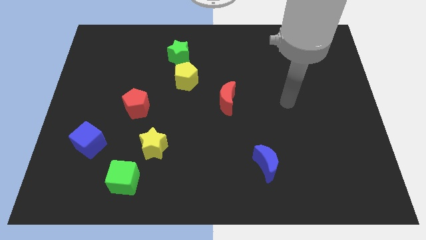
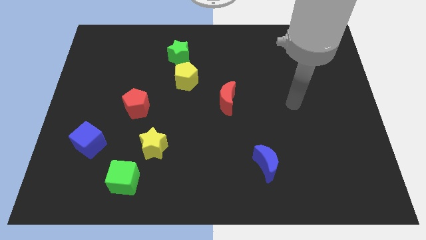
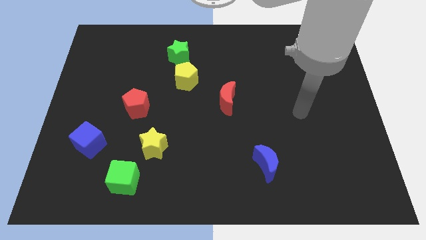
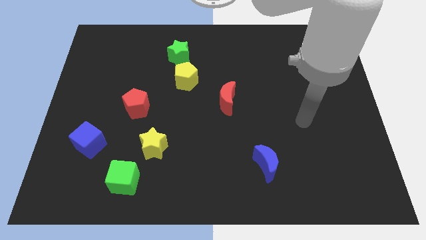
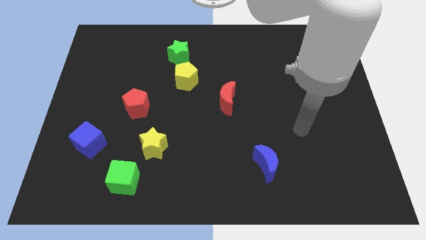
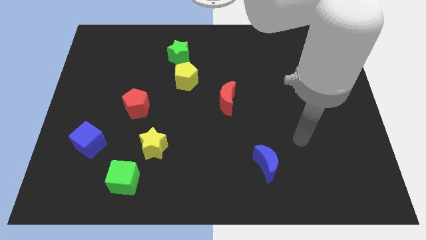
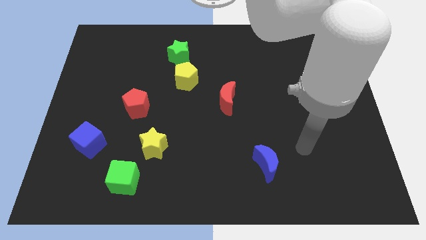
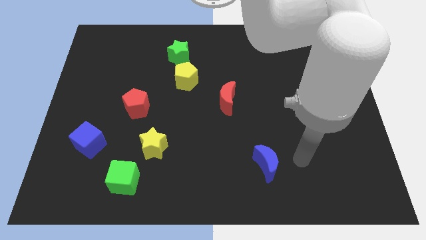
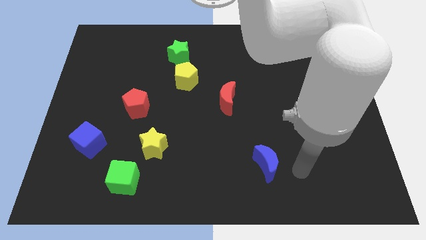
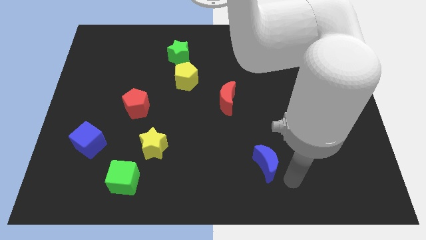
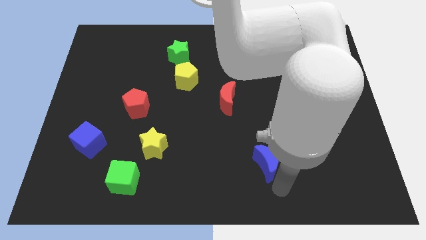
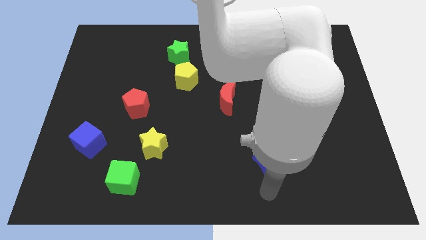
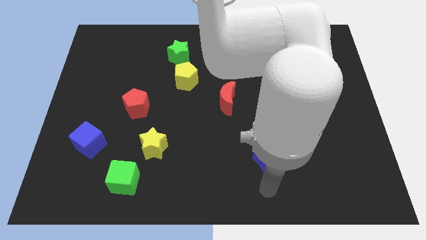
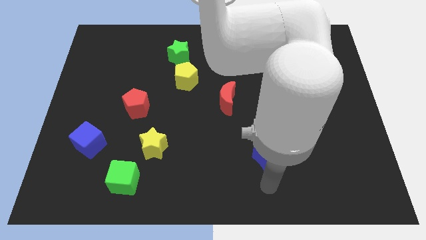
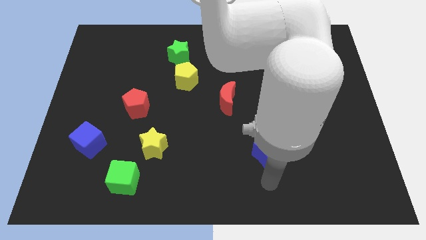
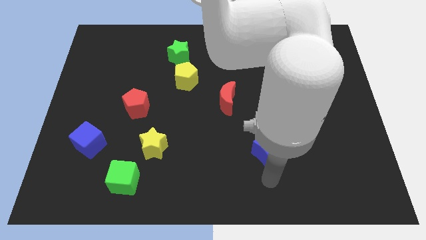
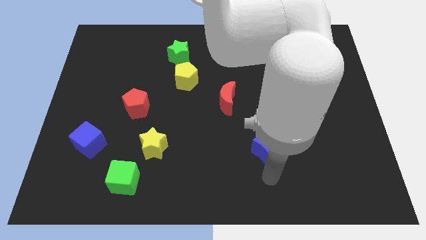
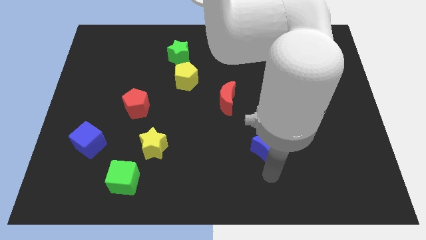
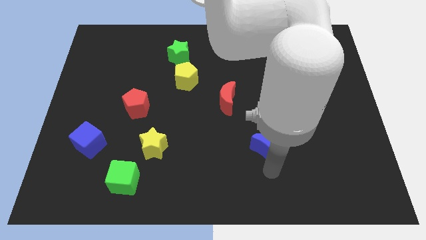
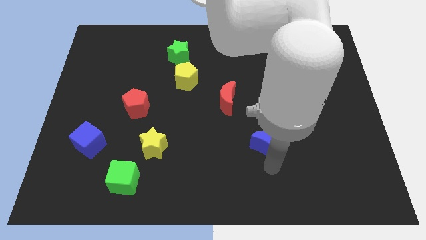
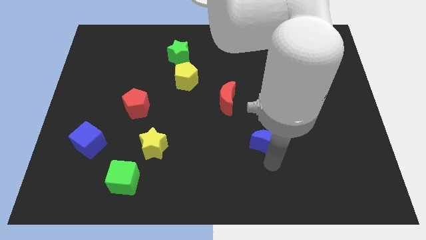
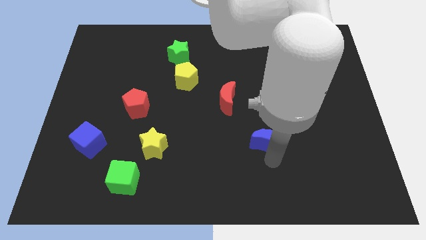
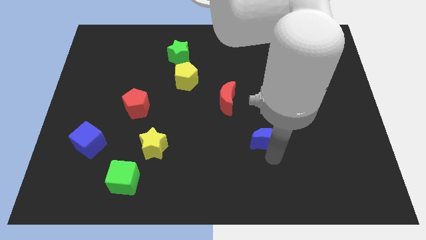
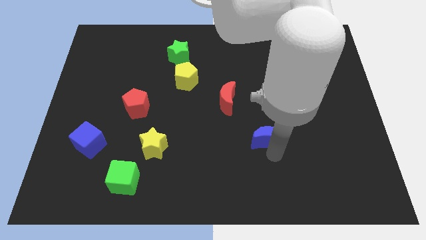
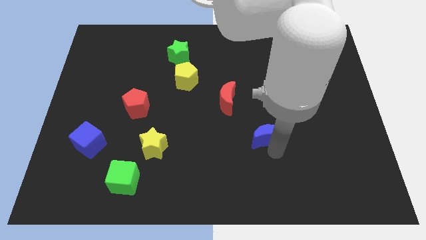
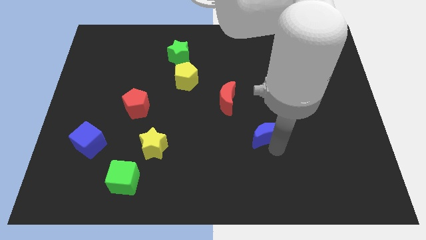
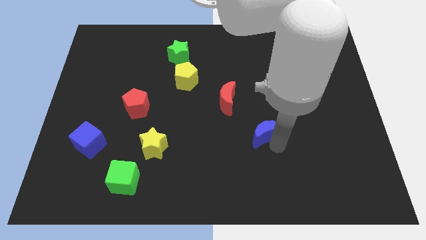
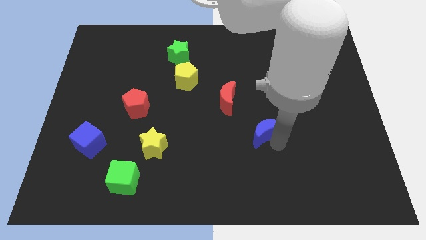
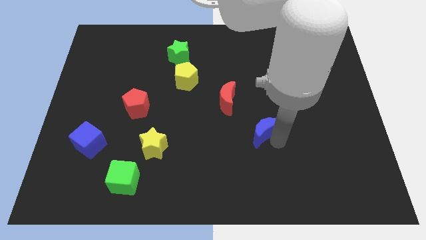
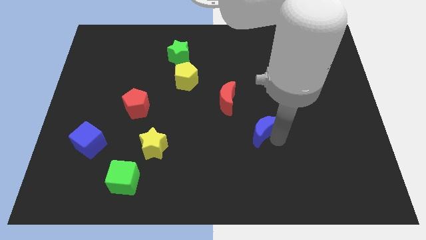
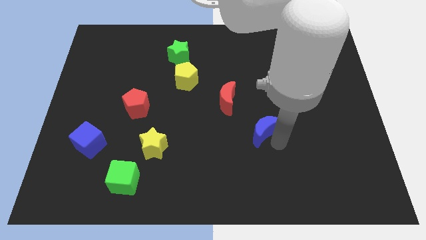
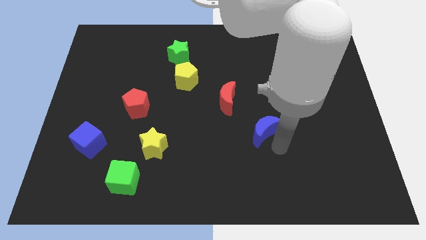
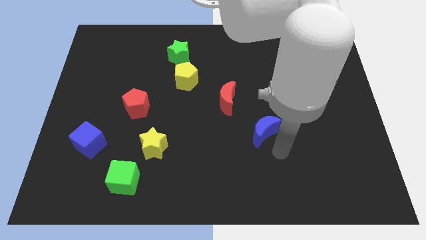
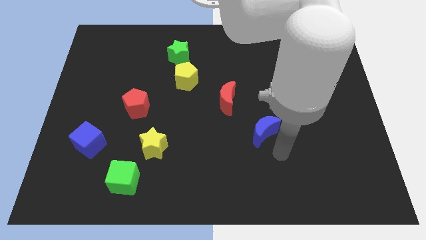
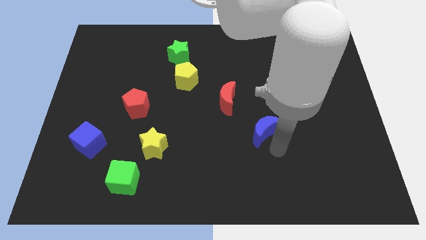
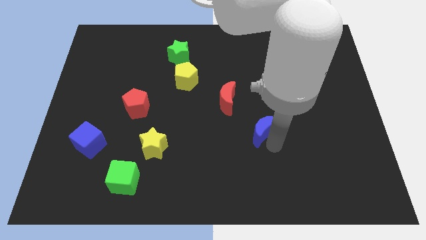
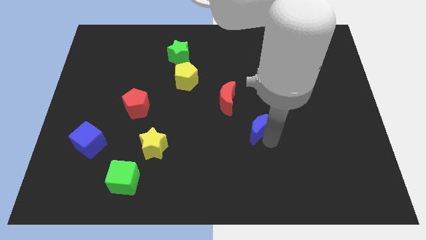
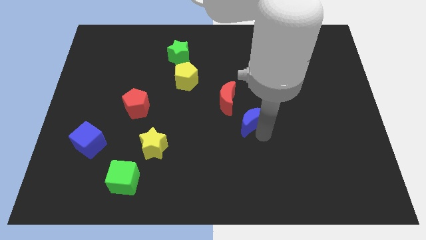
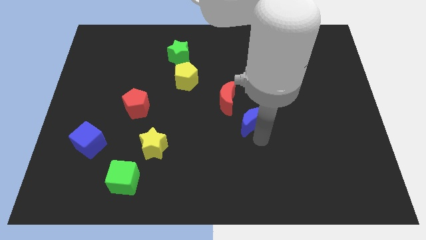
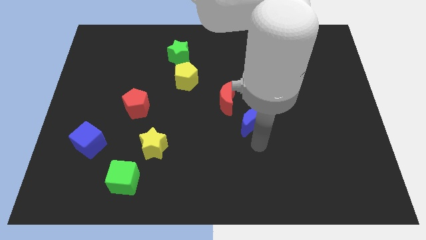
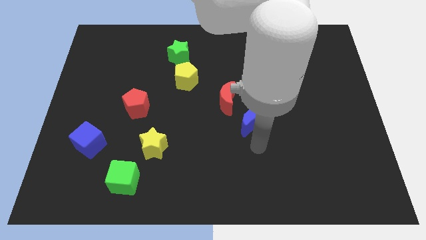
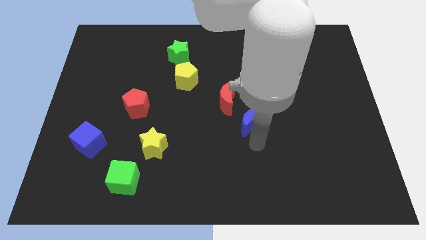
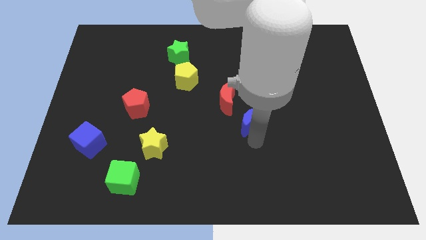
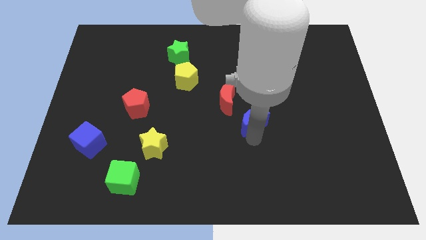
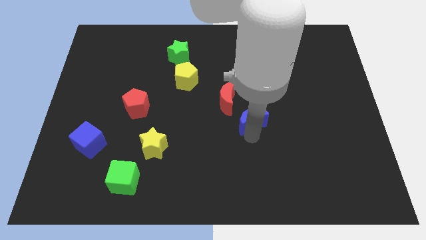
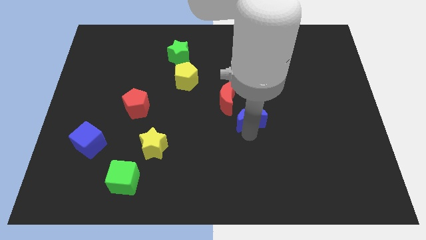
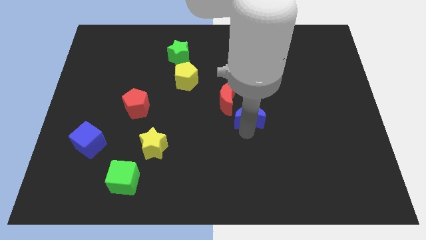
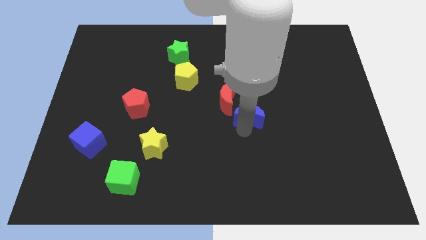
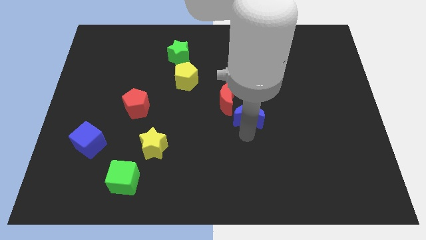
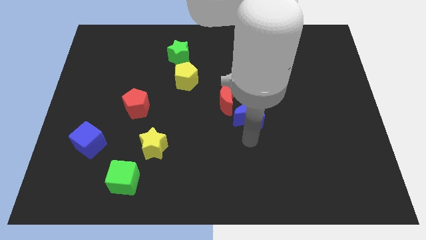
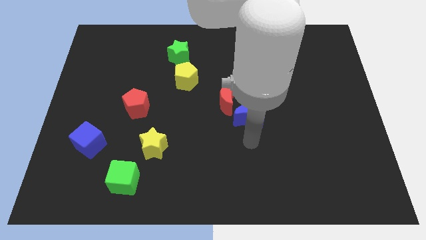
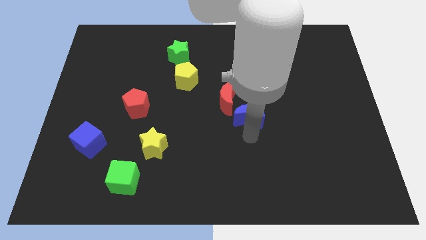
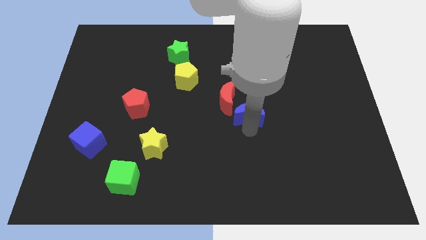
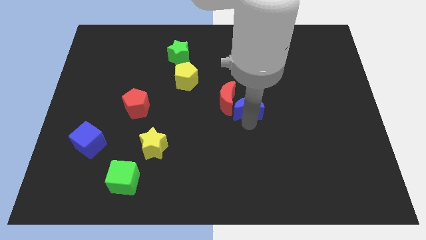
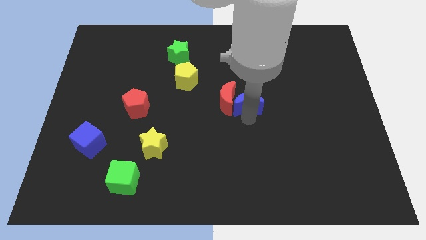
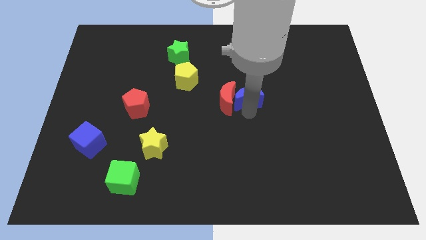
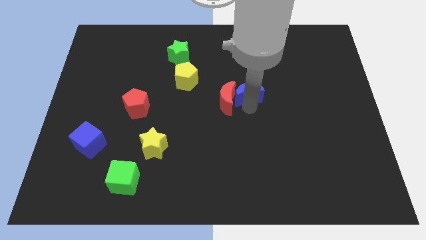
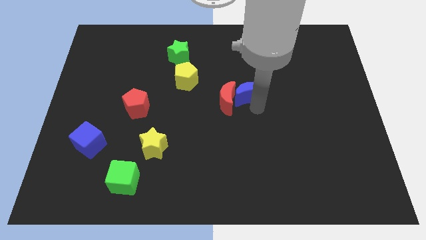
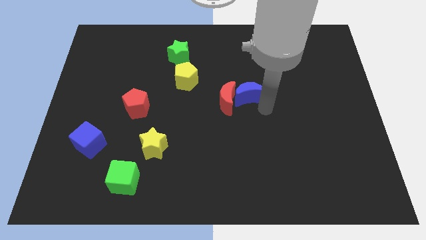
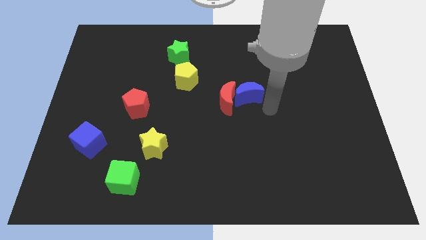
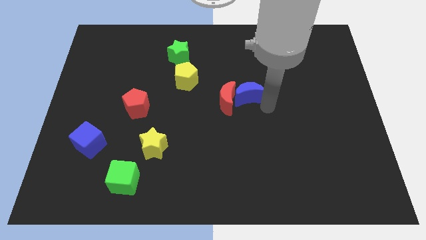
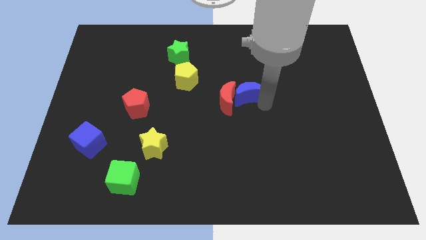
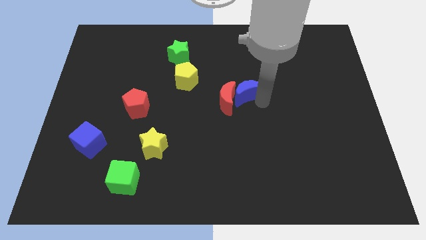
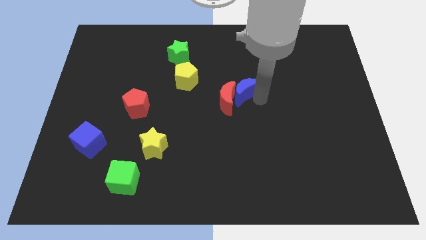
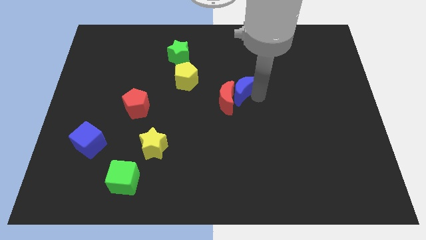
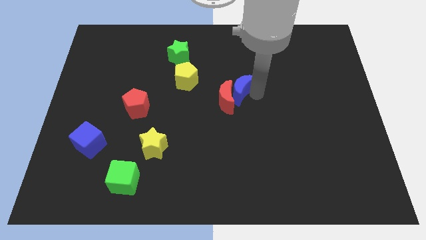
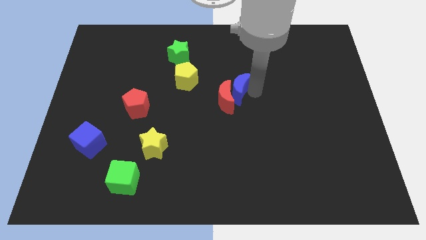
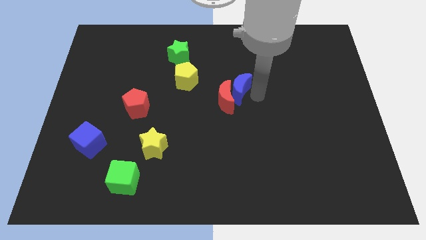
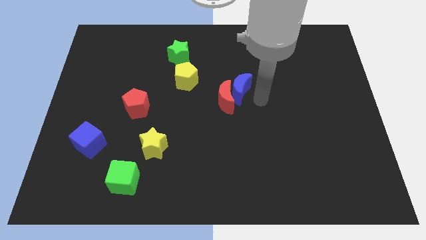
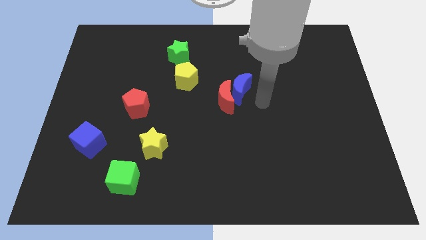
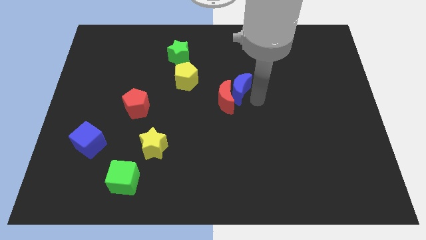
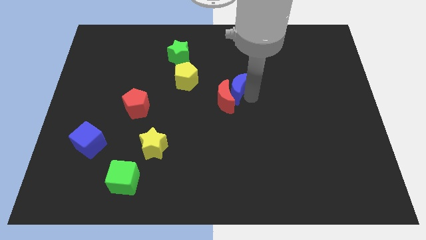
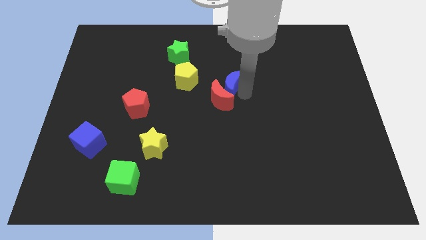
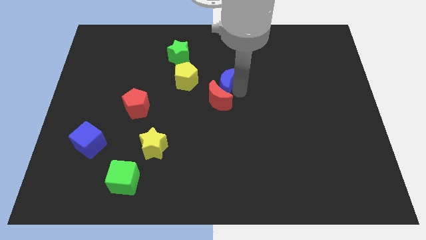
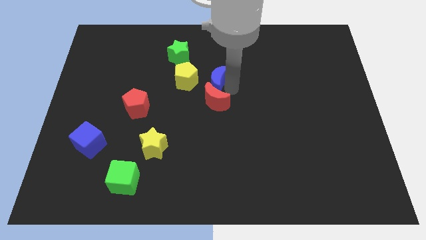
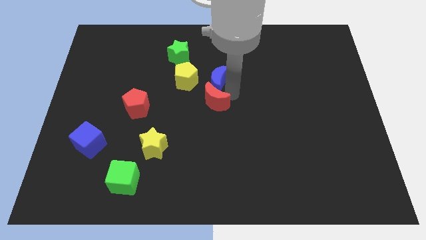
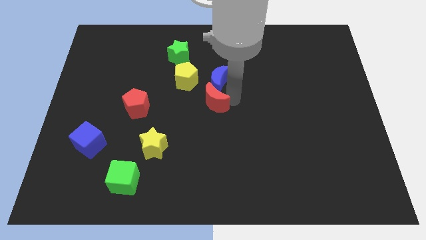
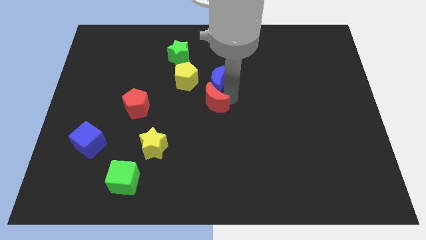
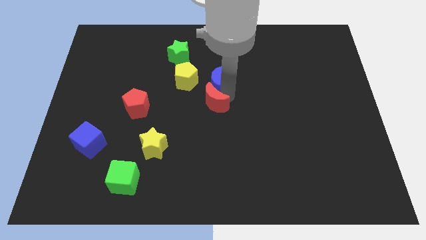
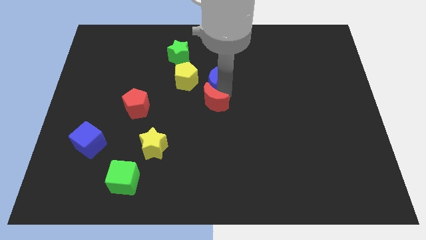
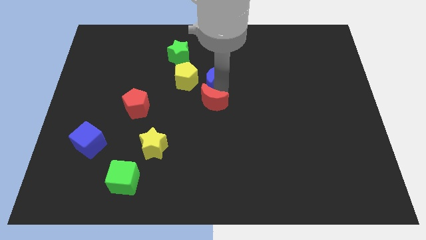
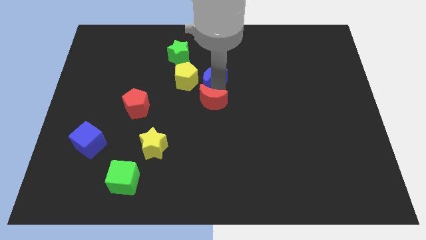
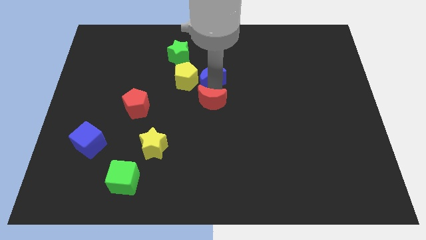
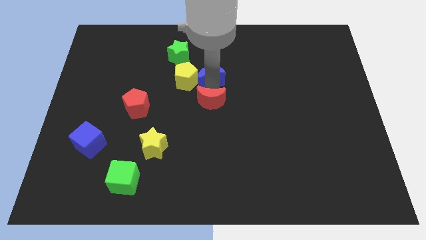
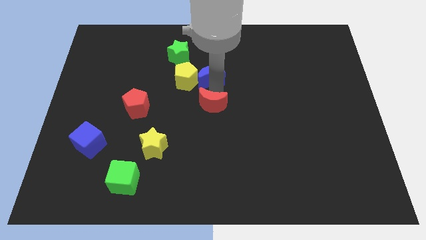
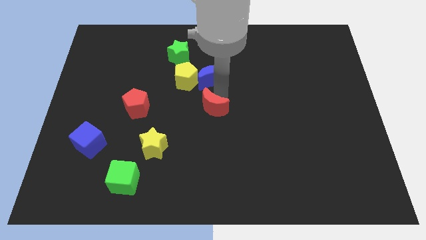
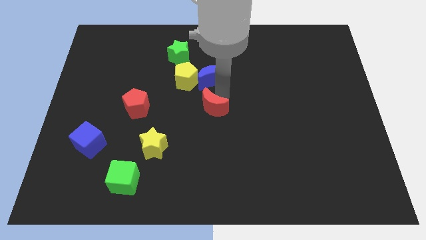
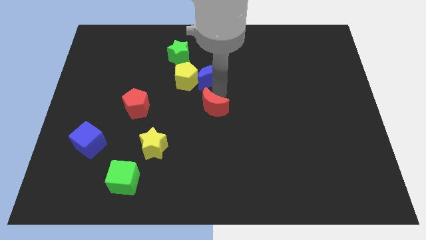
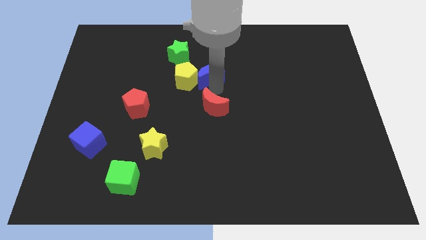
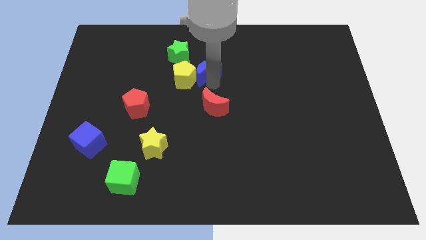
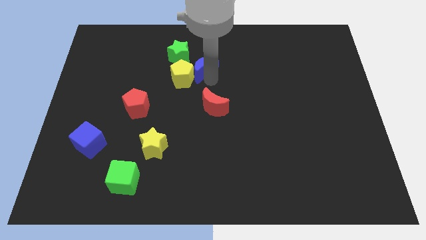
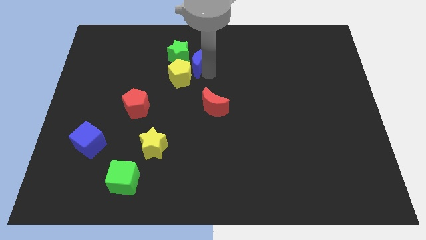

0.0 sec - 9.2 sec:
slide the blue moon next to the green star
